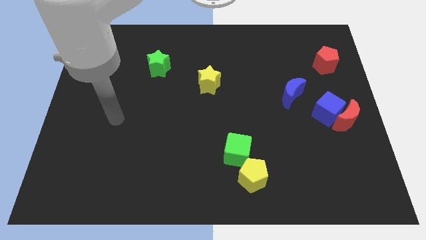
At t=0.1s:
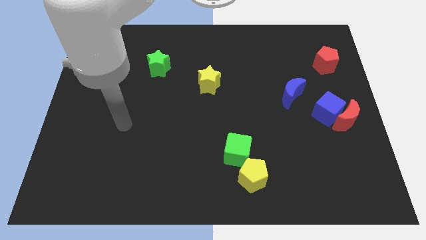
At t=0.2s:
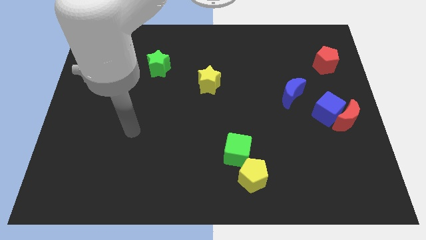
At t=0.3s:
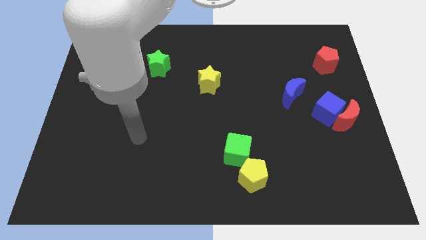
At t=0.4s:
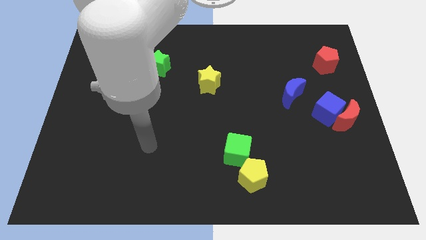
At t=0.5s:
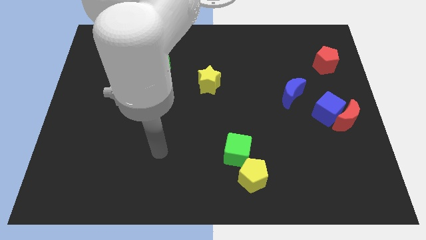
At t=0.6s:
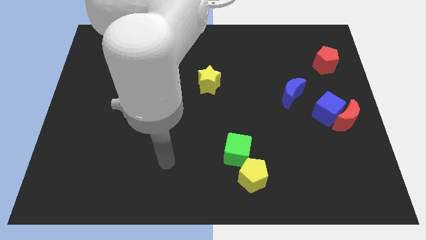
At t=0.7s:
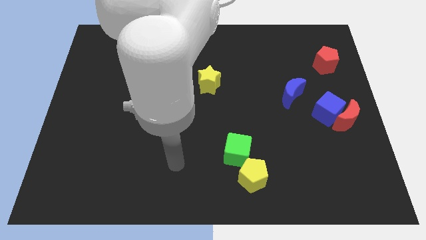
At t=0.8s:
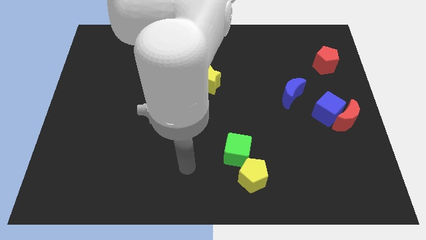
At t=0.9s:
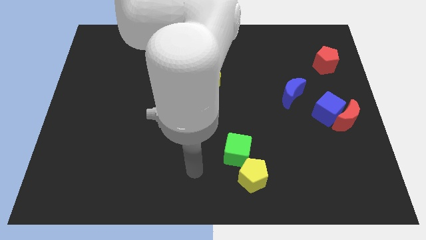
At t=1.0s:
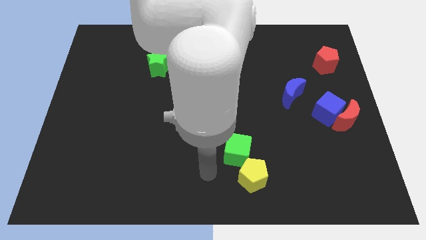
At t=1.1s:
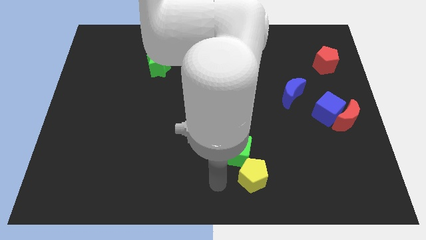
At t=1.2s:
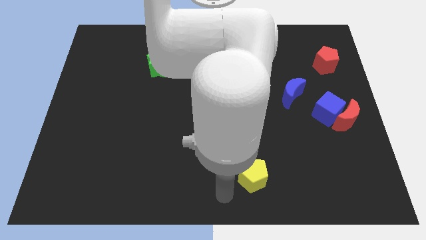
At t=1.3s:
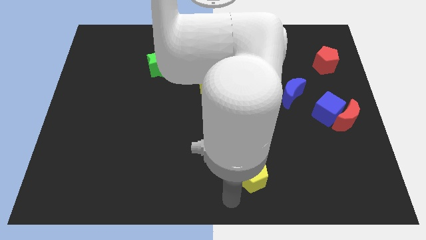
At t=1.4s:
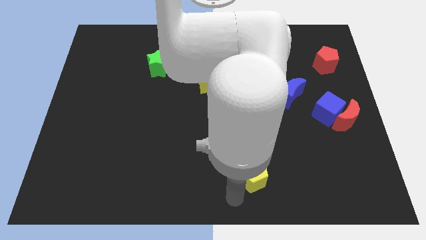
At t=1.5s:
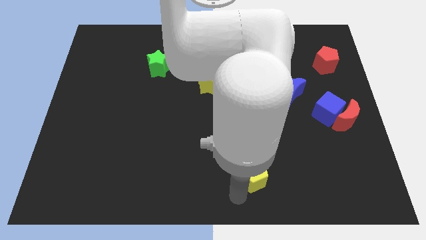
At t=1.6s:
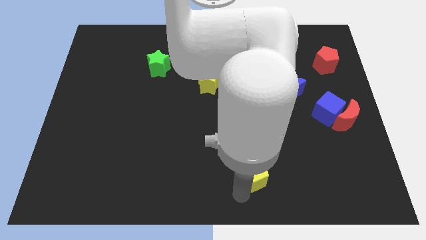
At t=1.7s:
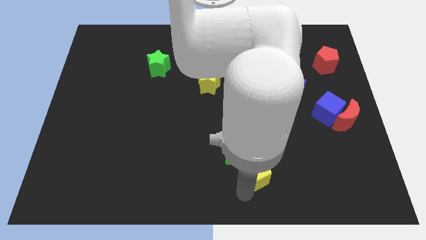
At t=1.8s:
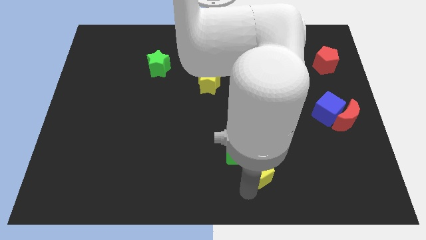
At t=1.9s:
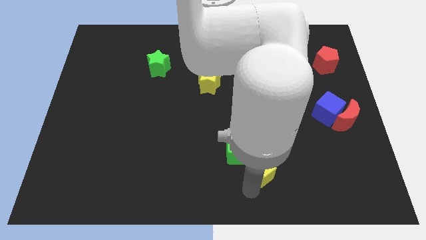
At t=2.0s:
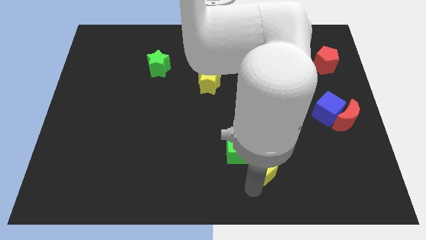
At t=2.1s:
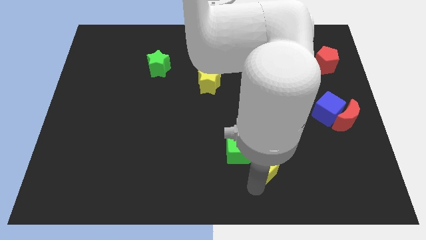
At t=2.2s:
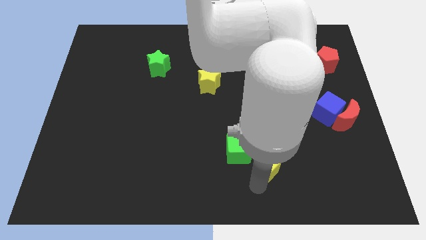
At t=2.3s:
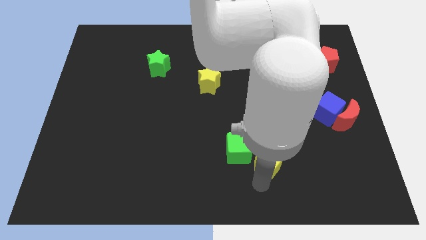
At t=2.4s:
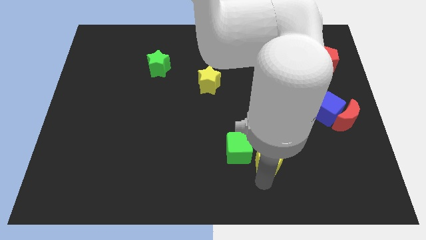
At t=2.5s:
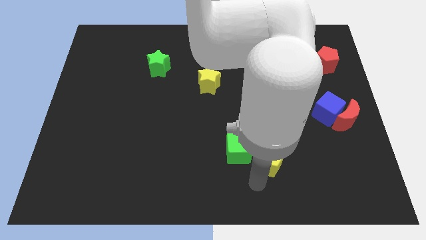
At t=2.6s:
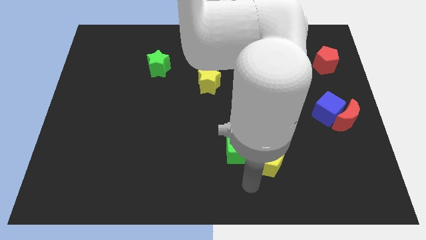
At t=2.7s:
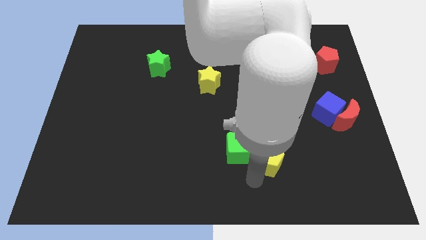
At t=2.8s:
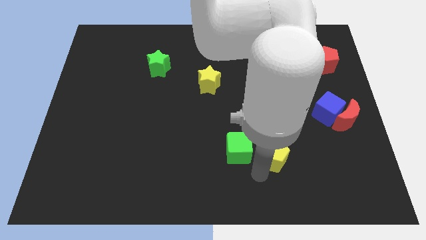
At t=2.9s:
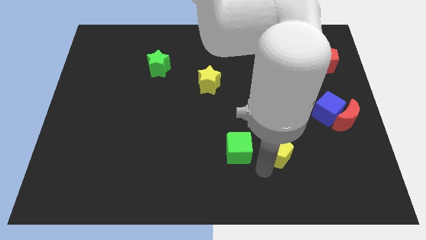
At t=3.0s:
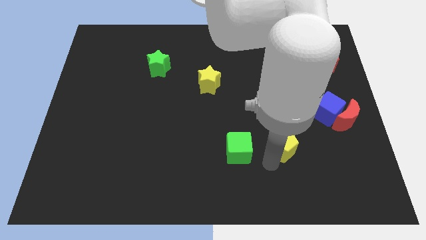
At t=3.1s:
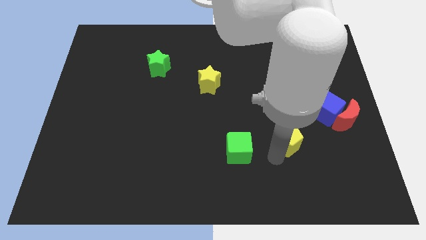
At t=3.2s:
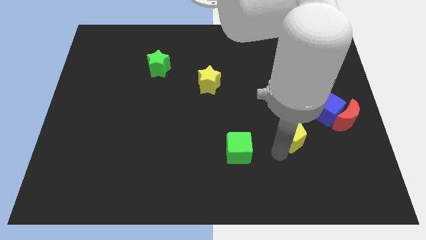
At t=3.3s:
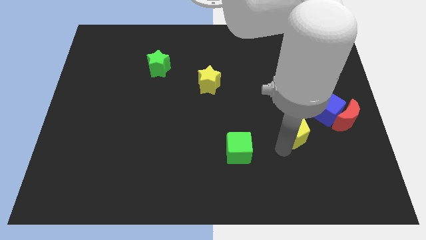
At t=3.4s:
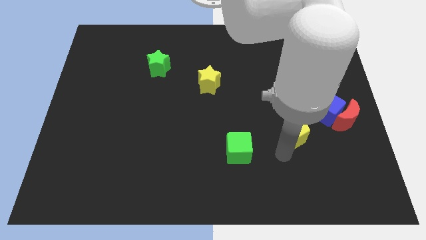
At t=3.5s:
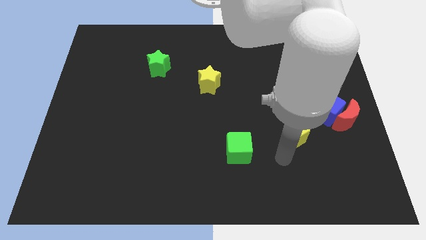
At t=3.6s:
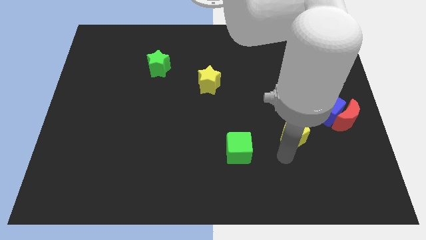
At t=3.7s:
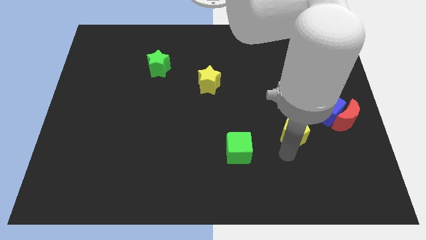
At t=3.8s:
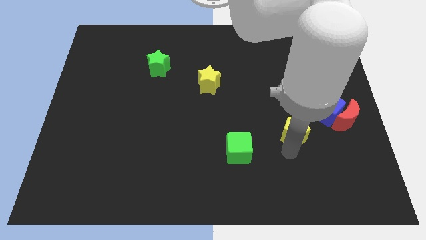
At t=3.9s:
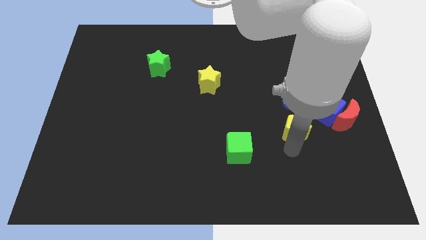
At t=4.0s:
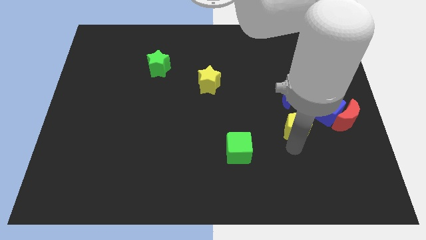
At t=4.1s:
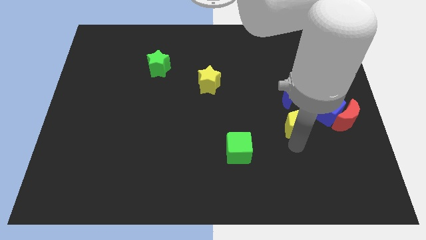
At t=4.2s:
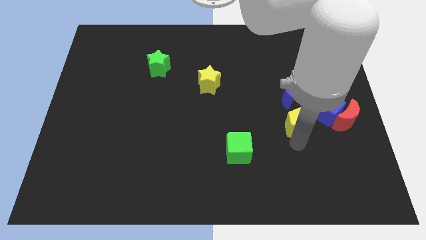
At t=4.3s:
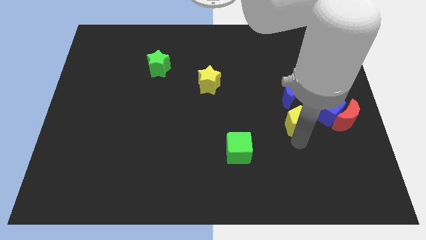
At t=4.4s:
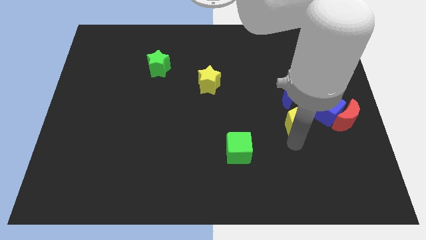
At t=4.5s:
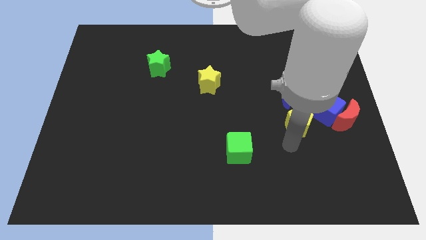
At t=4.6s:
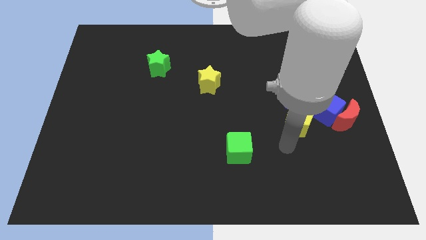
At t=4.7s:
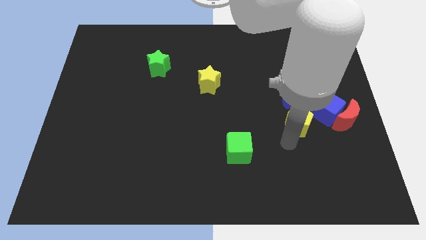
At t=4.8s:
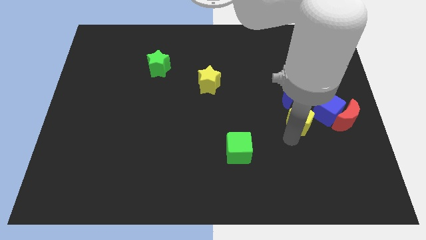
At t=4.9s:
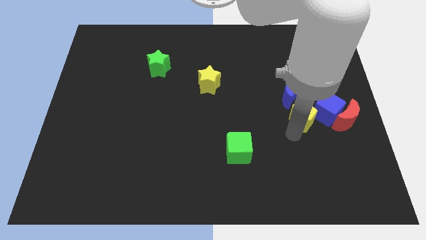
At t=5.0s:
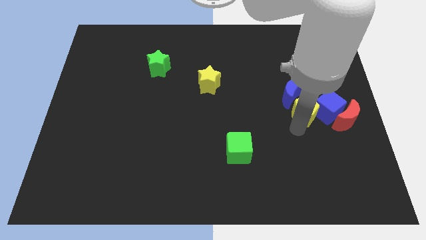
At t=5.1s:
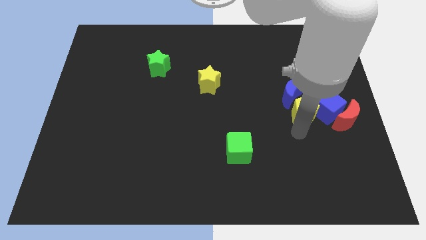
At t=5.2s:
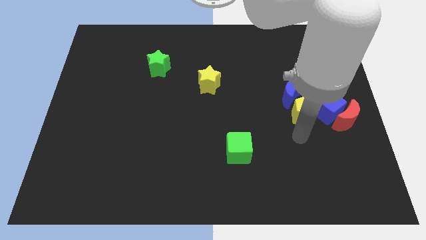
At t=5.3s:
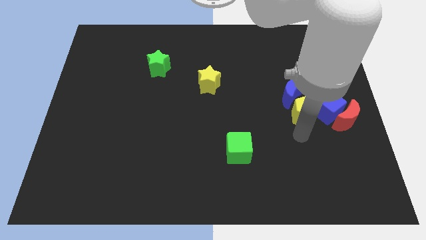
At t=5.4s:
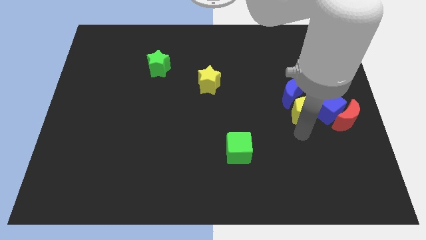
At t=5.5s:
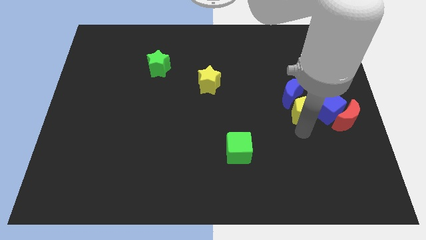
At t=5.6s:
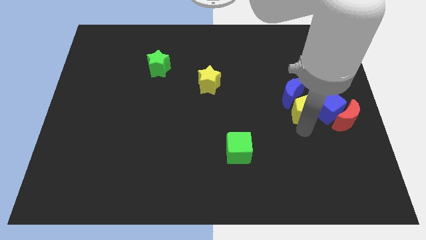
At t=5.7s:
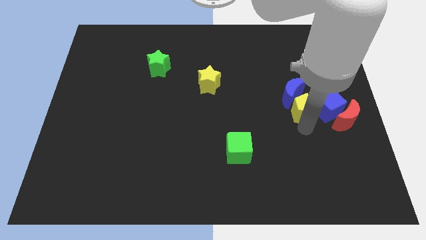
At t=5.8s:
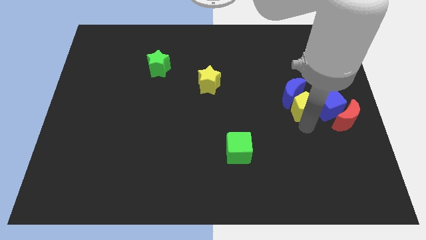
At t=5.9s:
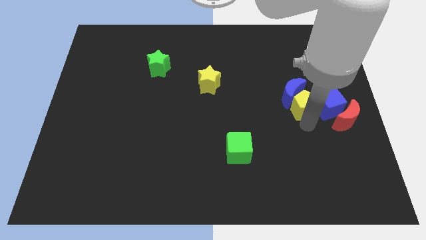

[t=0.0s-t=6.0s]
push the yellow pentagon to the right of the blue moon

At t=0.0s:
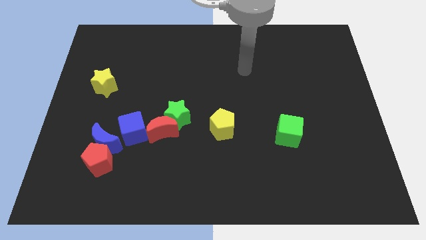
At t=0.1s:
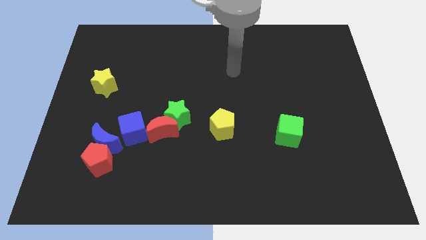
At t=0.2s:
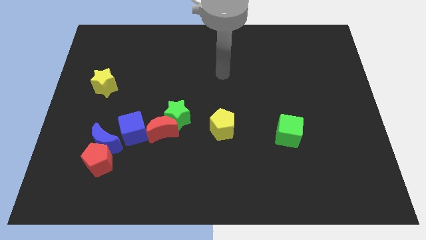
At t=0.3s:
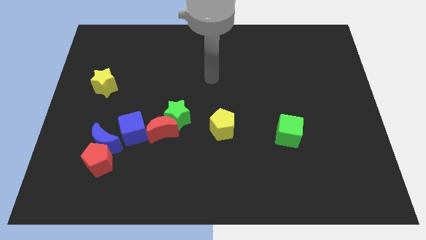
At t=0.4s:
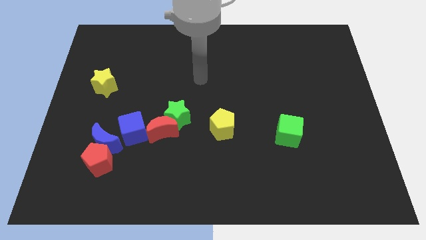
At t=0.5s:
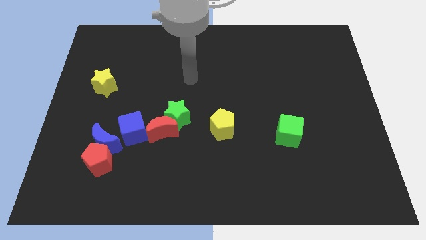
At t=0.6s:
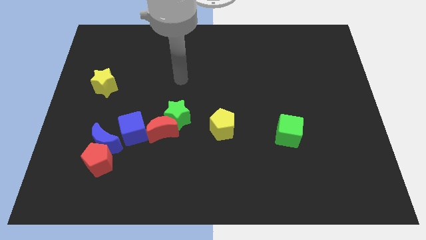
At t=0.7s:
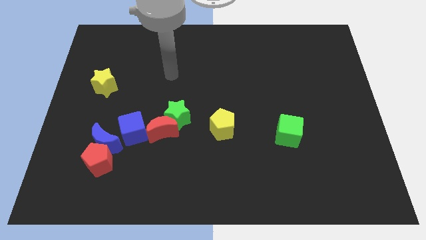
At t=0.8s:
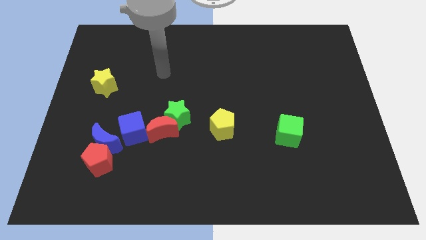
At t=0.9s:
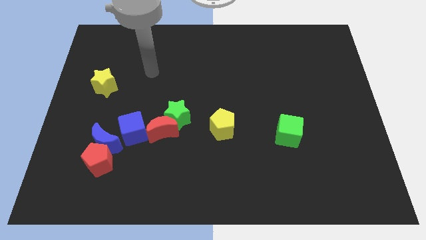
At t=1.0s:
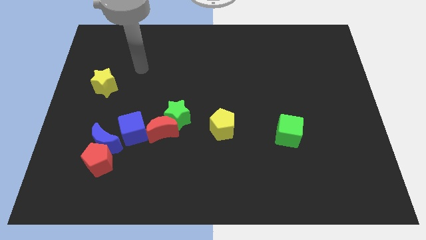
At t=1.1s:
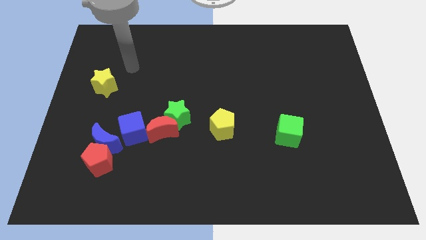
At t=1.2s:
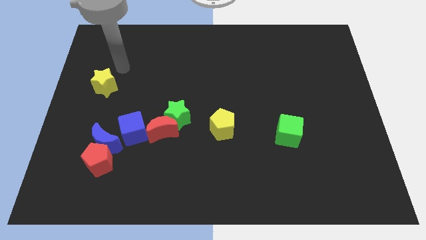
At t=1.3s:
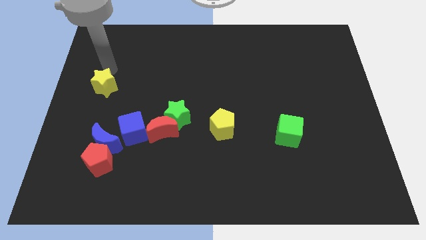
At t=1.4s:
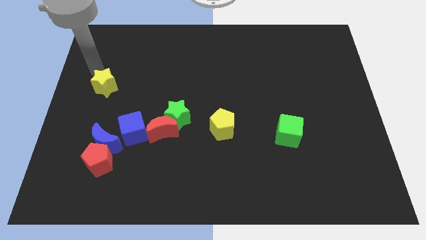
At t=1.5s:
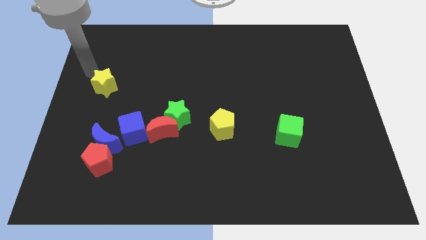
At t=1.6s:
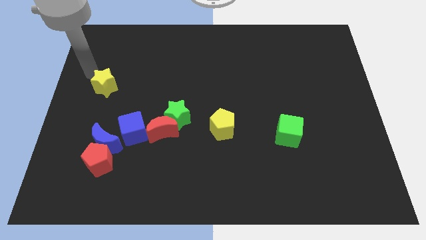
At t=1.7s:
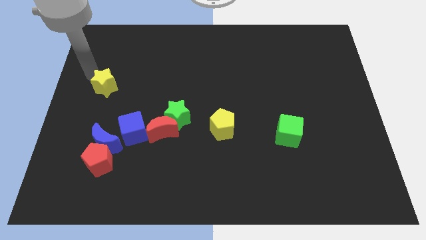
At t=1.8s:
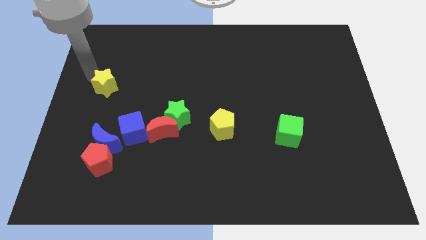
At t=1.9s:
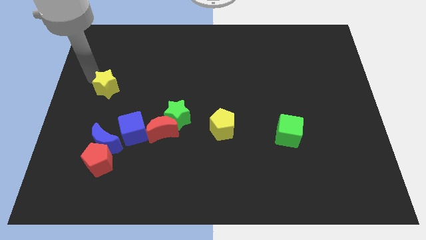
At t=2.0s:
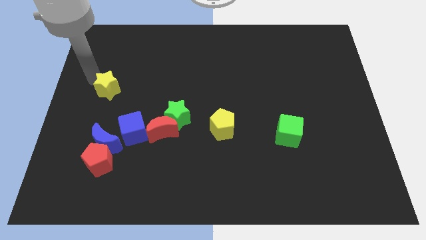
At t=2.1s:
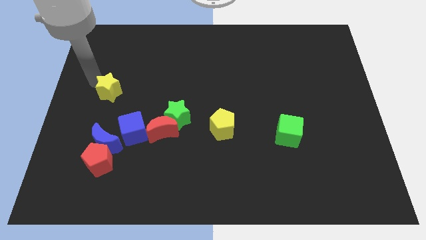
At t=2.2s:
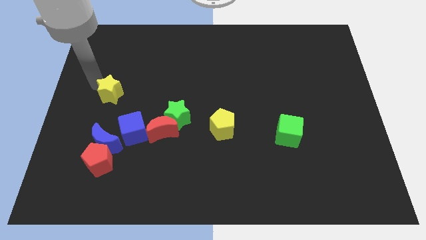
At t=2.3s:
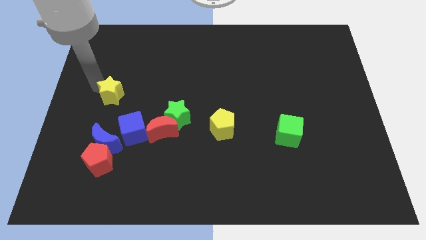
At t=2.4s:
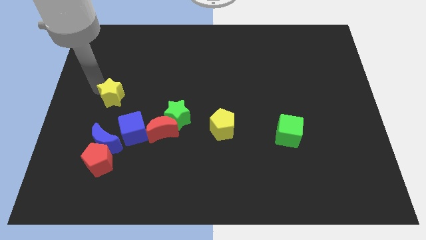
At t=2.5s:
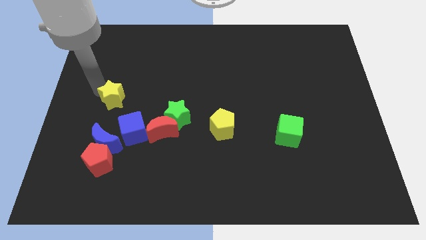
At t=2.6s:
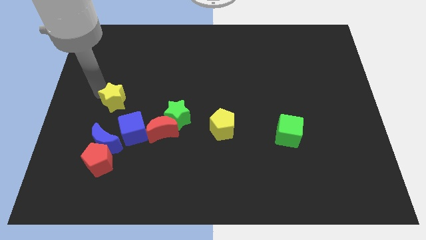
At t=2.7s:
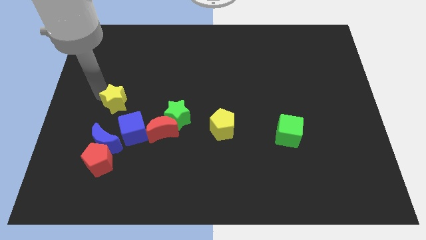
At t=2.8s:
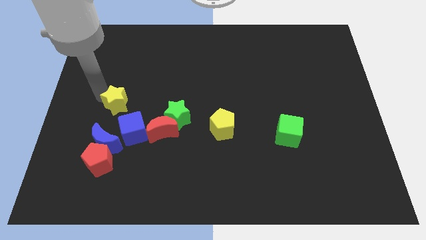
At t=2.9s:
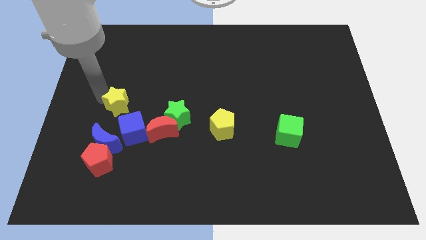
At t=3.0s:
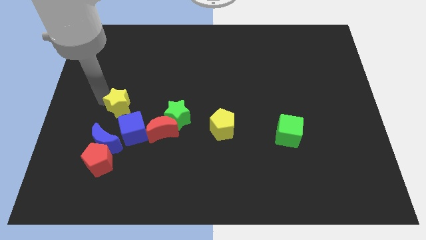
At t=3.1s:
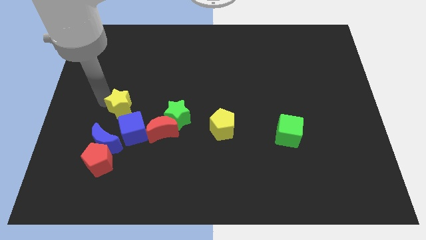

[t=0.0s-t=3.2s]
move the yellow star diagonally up and to the left of the red moon
